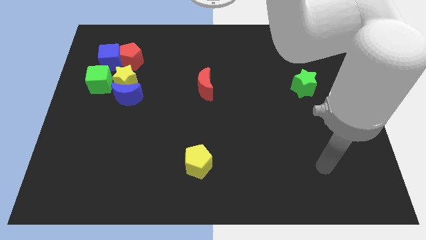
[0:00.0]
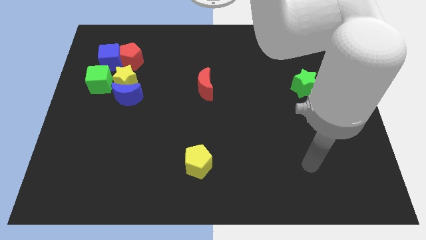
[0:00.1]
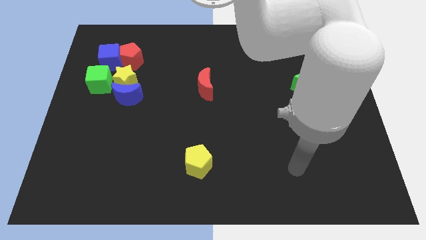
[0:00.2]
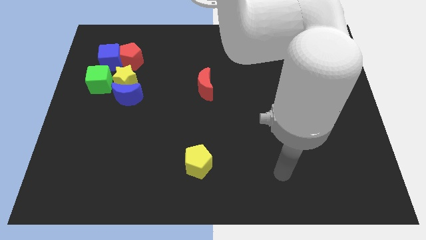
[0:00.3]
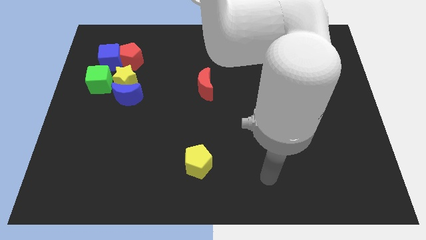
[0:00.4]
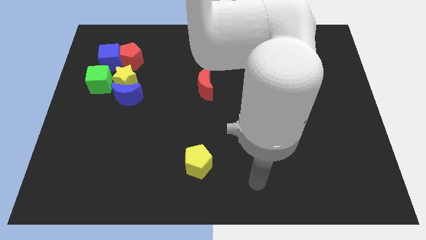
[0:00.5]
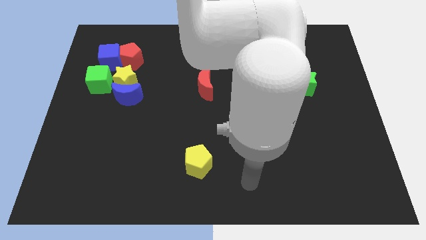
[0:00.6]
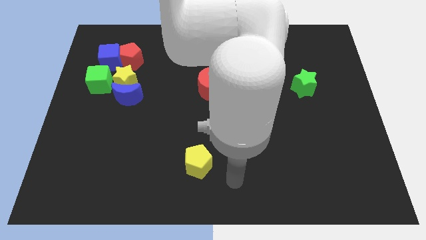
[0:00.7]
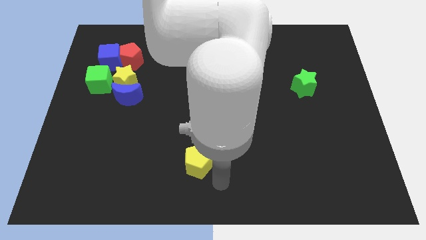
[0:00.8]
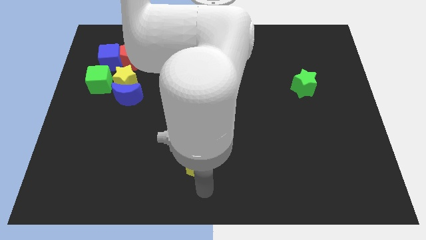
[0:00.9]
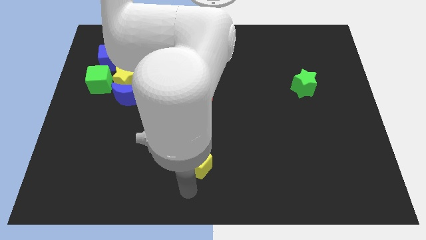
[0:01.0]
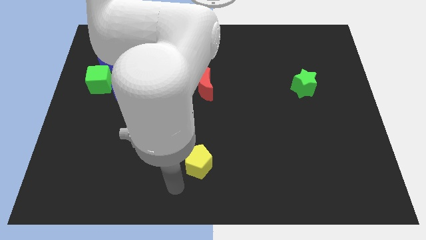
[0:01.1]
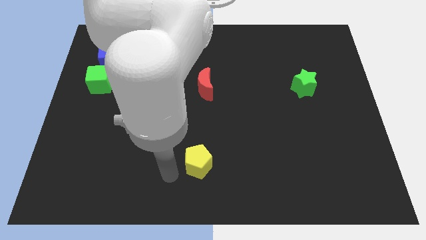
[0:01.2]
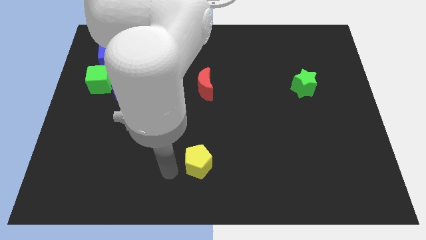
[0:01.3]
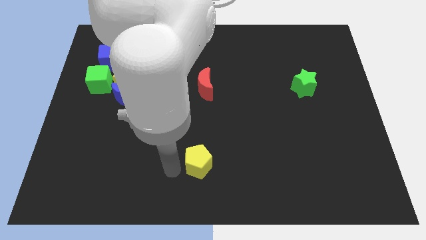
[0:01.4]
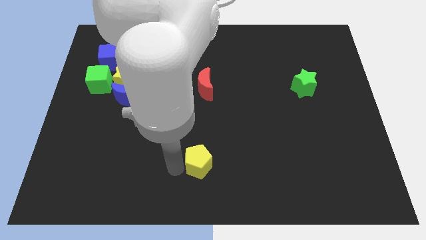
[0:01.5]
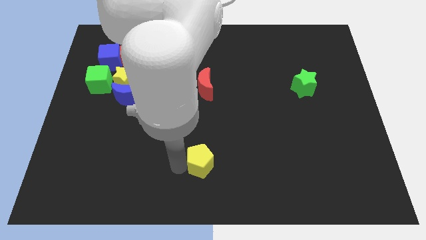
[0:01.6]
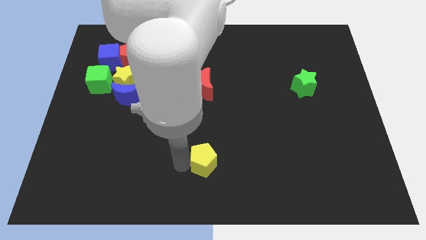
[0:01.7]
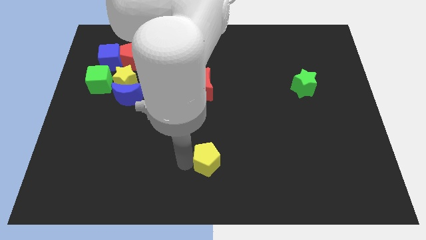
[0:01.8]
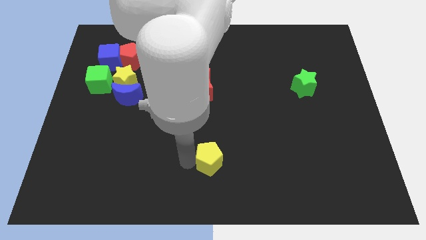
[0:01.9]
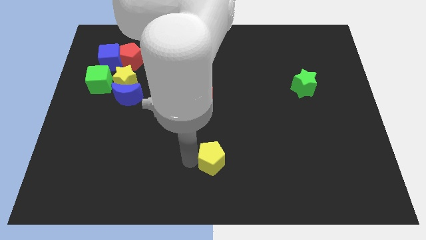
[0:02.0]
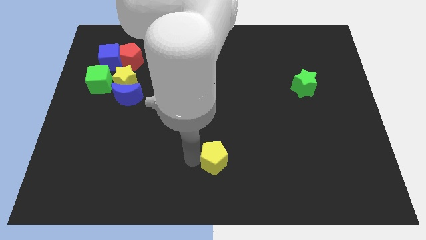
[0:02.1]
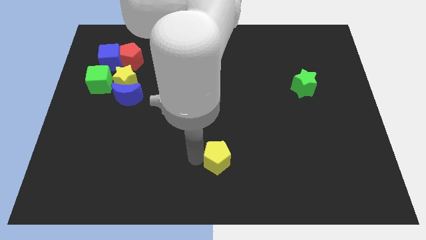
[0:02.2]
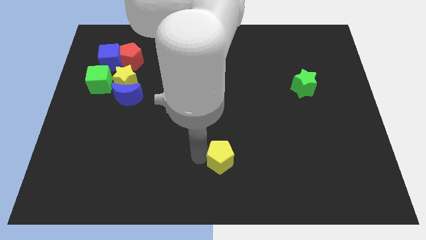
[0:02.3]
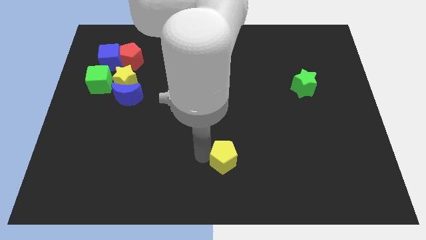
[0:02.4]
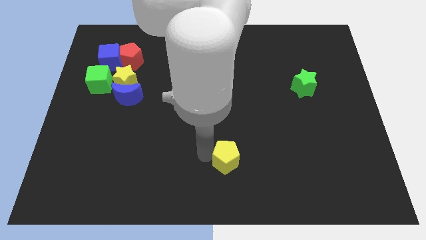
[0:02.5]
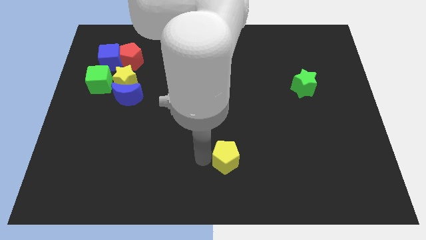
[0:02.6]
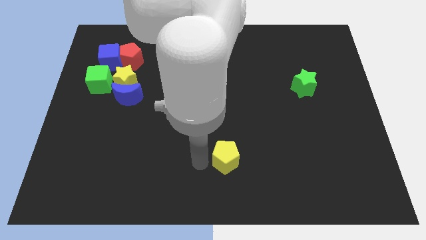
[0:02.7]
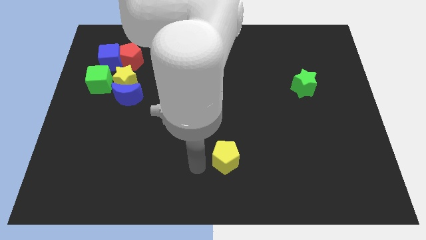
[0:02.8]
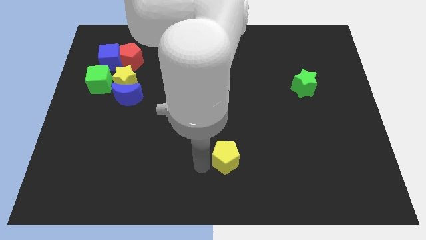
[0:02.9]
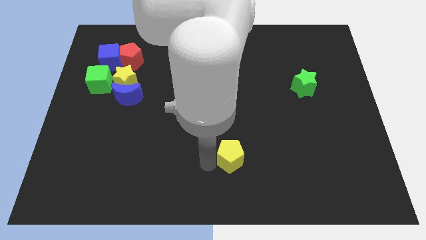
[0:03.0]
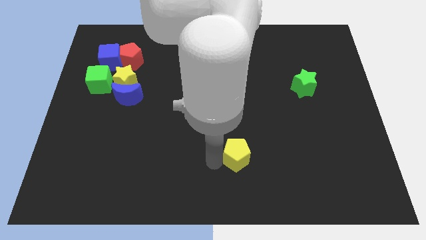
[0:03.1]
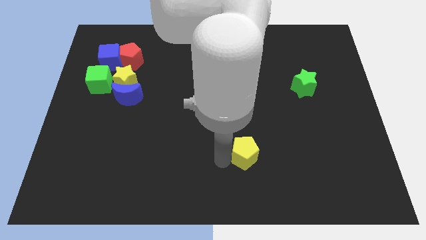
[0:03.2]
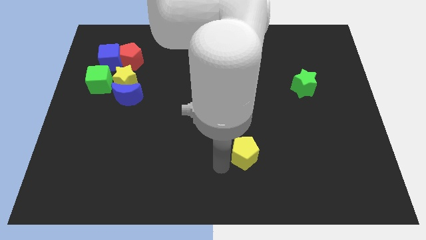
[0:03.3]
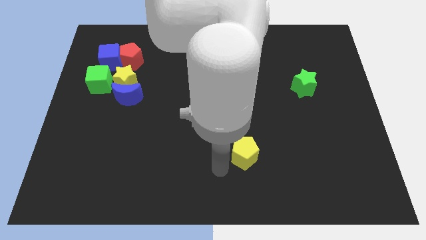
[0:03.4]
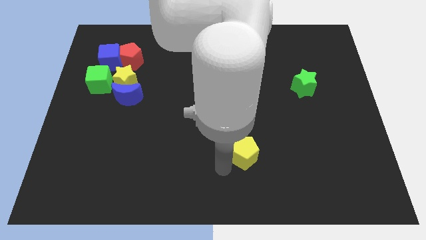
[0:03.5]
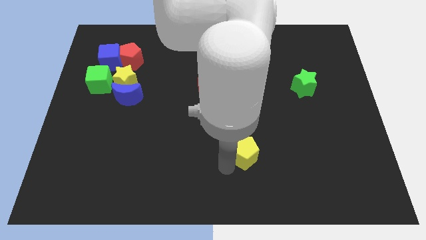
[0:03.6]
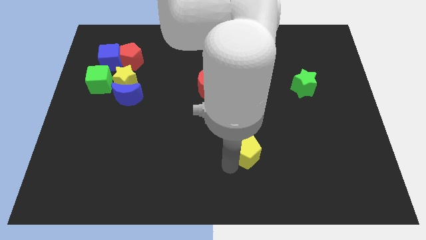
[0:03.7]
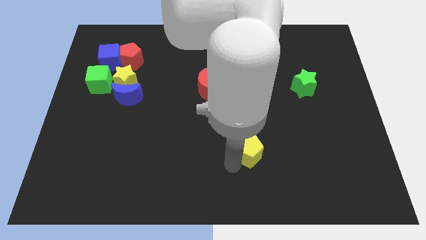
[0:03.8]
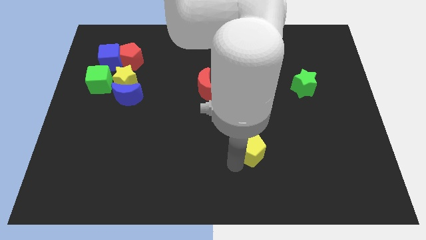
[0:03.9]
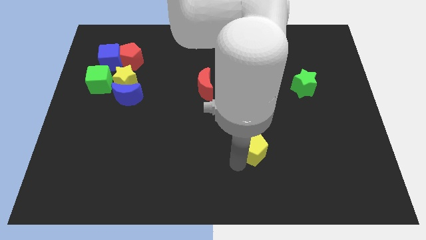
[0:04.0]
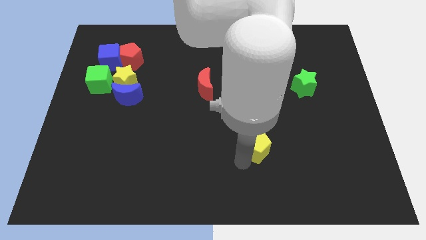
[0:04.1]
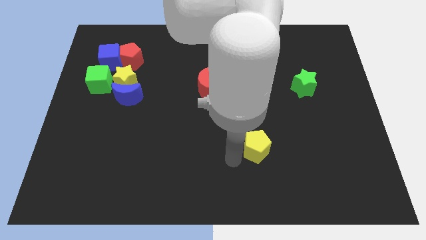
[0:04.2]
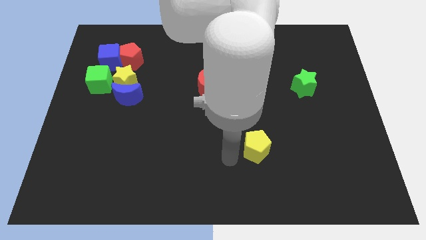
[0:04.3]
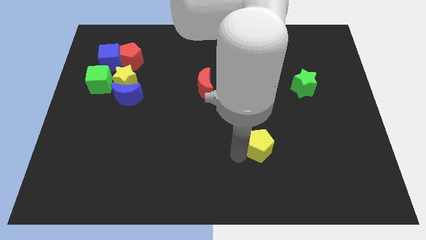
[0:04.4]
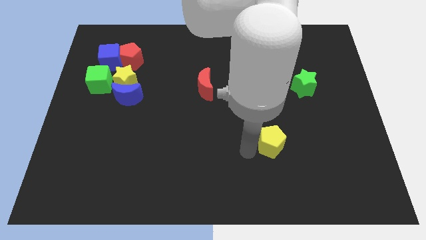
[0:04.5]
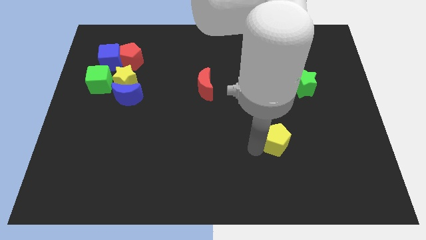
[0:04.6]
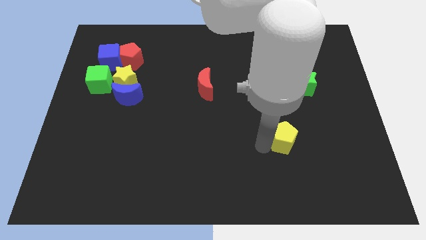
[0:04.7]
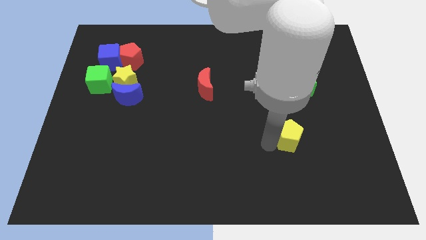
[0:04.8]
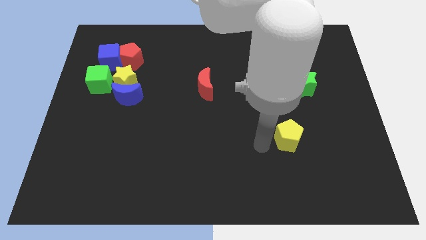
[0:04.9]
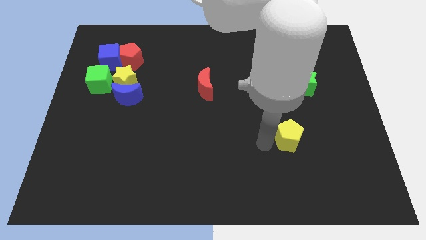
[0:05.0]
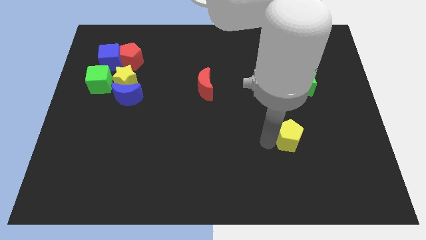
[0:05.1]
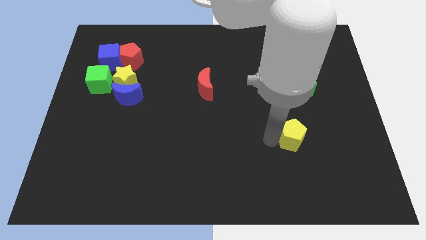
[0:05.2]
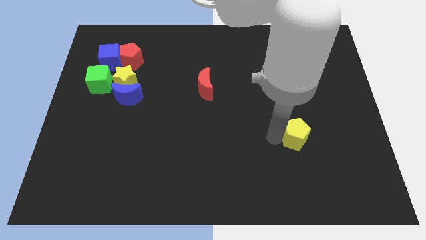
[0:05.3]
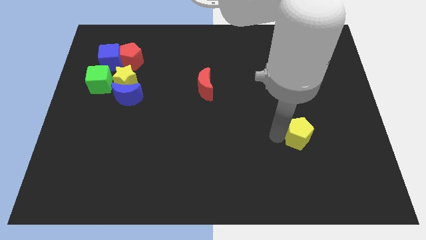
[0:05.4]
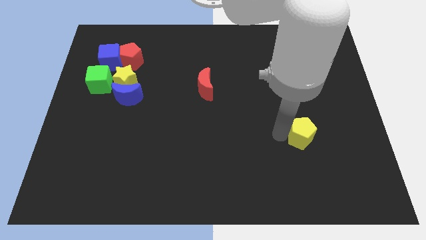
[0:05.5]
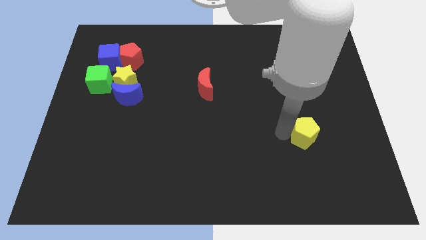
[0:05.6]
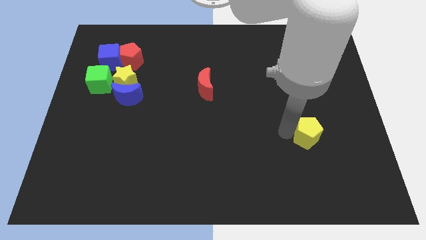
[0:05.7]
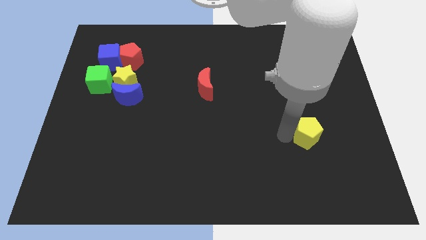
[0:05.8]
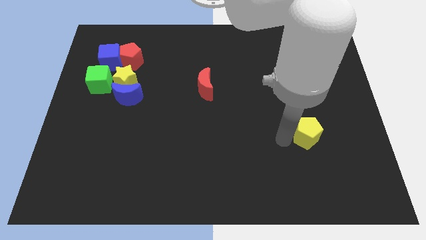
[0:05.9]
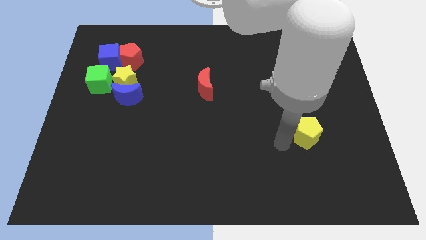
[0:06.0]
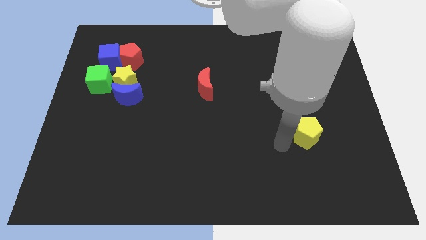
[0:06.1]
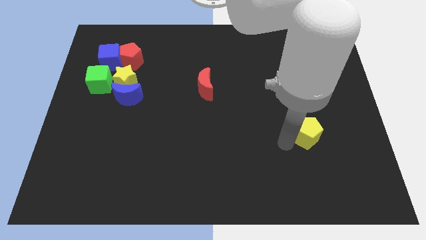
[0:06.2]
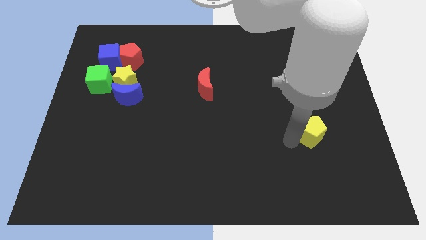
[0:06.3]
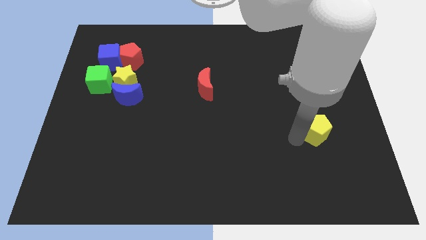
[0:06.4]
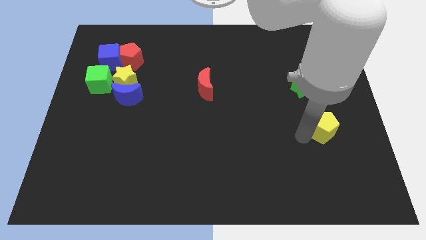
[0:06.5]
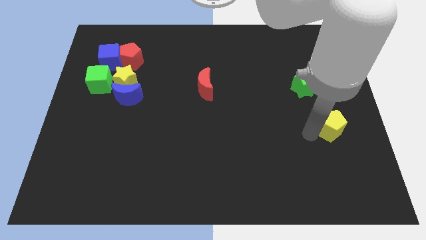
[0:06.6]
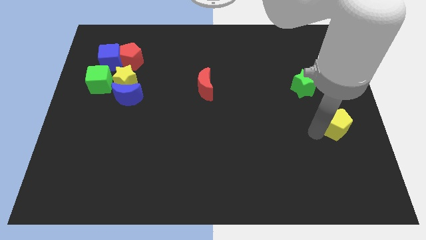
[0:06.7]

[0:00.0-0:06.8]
slide the yellow pentagon to the right side of the board
